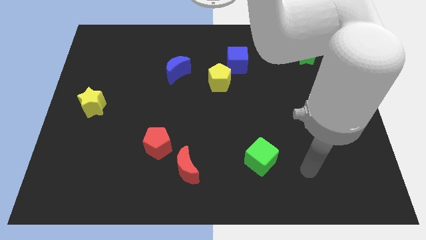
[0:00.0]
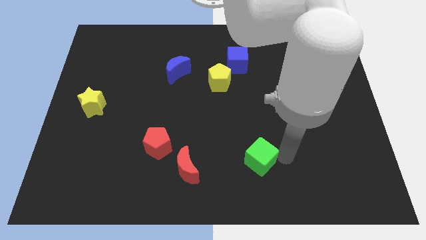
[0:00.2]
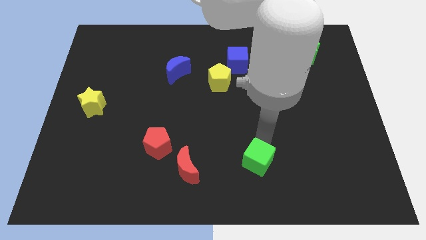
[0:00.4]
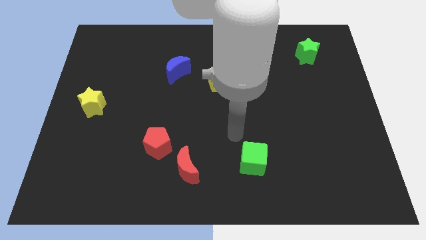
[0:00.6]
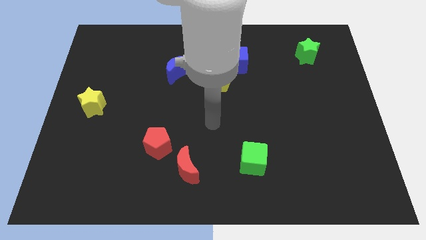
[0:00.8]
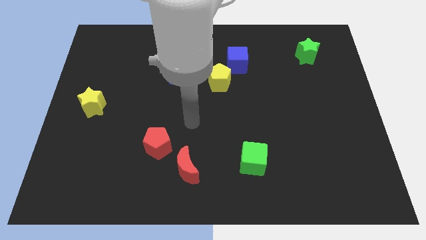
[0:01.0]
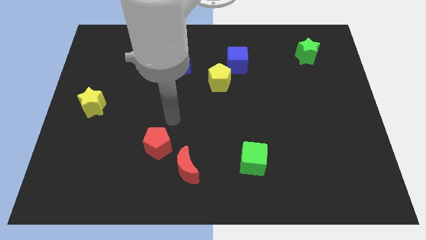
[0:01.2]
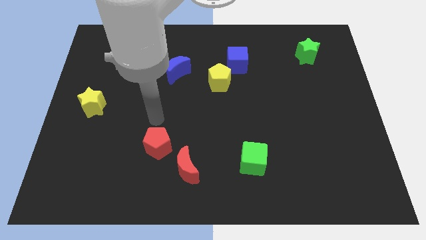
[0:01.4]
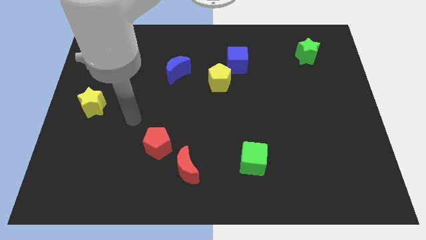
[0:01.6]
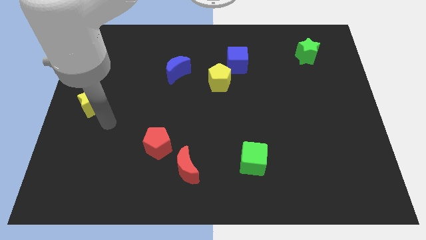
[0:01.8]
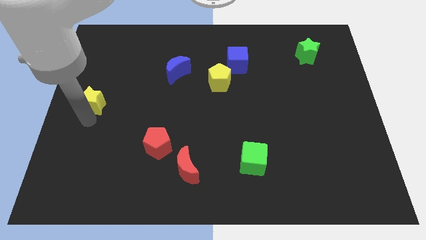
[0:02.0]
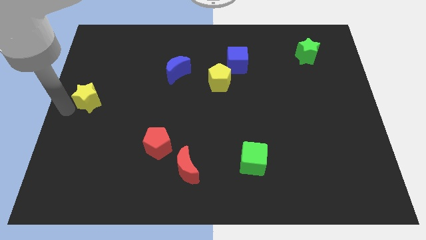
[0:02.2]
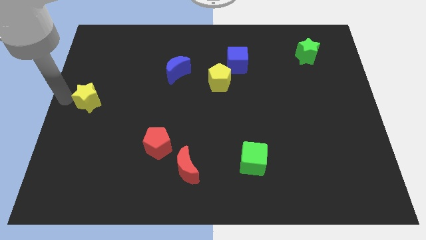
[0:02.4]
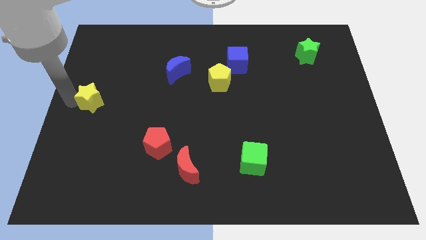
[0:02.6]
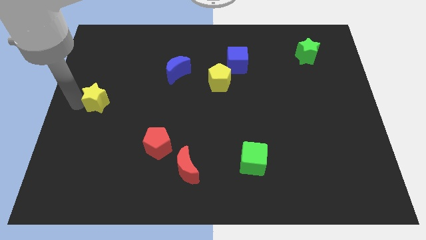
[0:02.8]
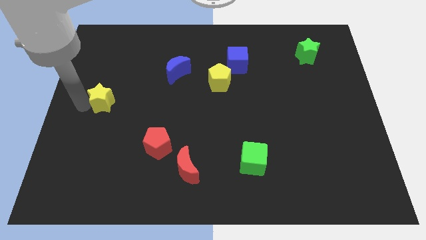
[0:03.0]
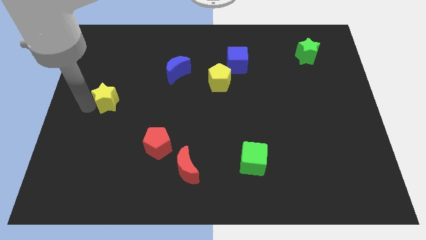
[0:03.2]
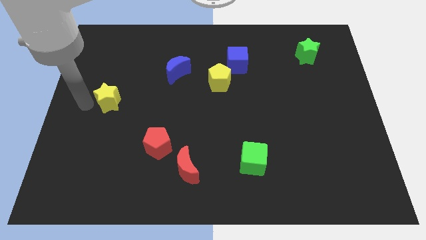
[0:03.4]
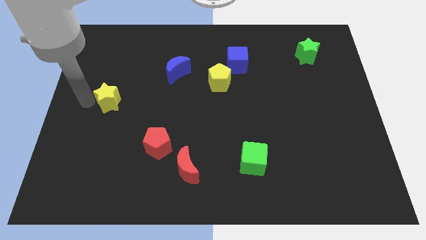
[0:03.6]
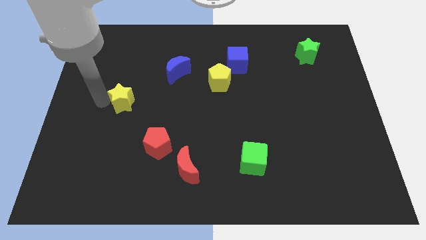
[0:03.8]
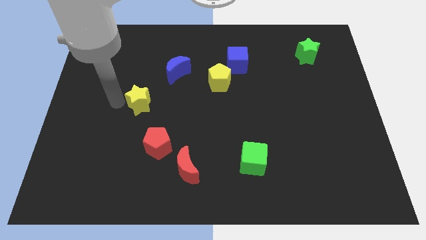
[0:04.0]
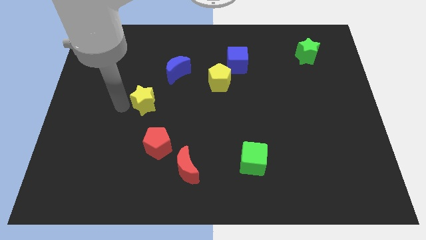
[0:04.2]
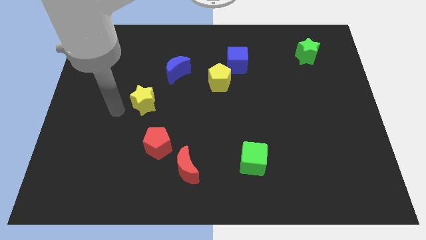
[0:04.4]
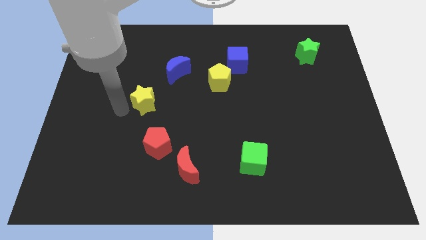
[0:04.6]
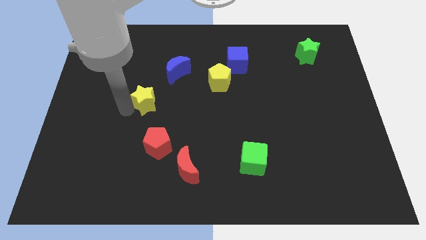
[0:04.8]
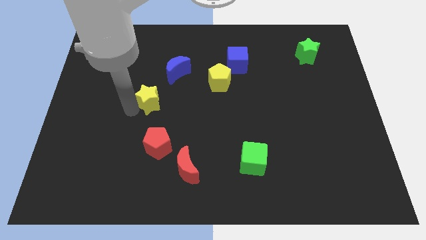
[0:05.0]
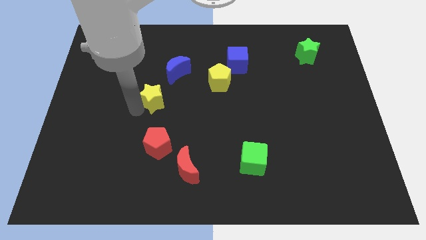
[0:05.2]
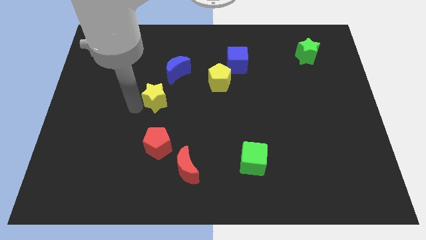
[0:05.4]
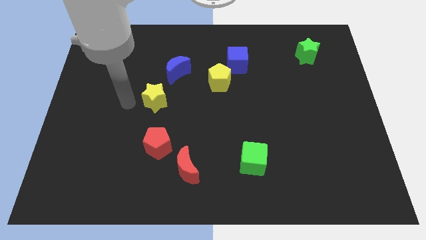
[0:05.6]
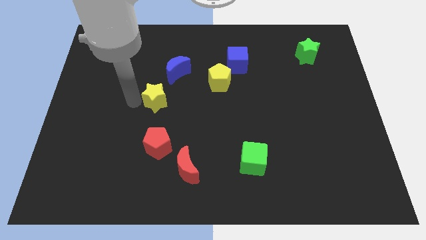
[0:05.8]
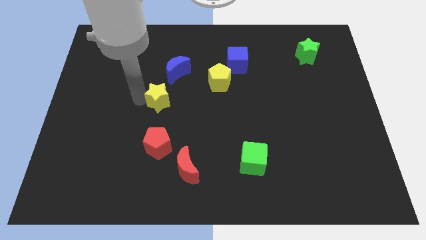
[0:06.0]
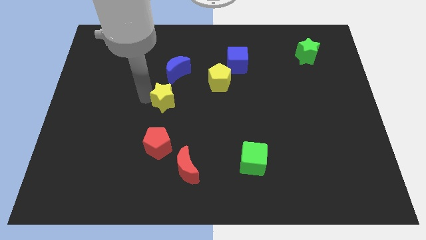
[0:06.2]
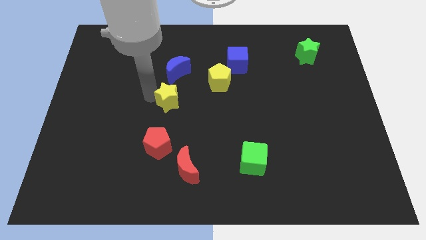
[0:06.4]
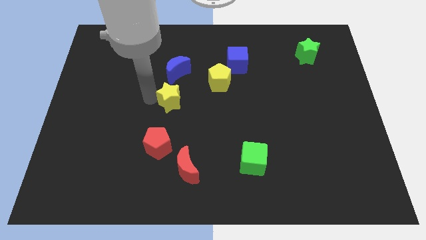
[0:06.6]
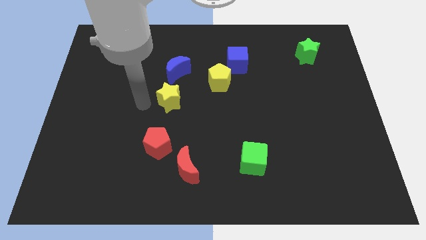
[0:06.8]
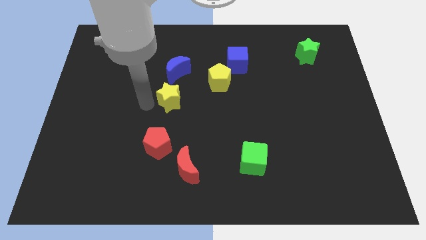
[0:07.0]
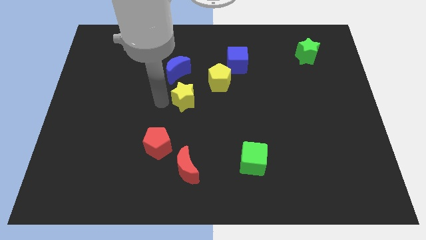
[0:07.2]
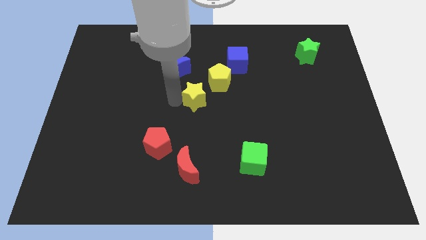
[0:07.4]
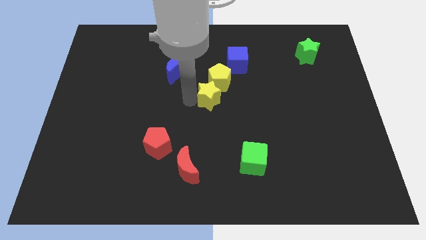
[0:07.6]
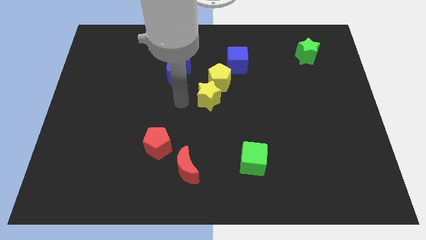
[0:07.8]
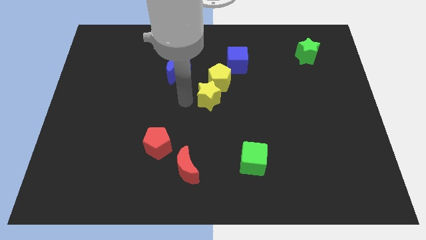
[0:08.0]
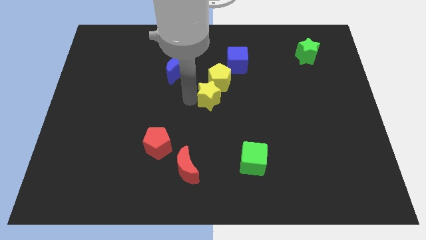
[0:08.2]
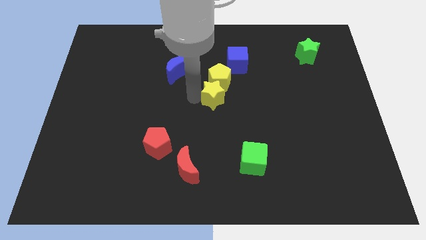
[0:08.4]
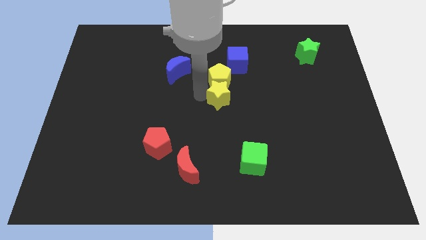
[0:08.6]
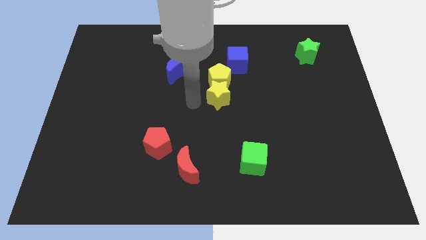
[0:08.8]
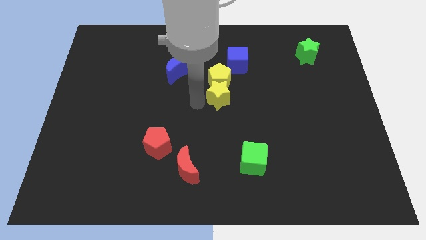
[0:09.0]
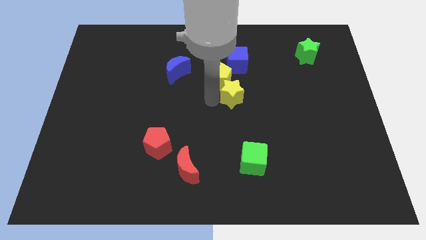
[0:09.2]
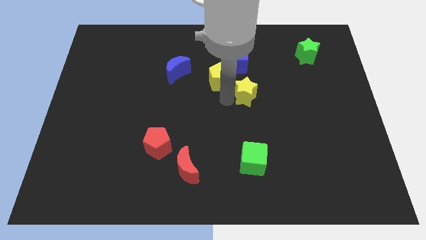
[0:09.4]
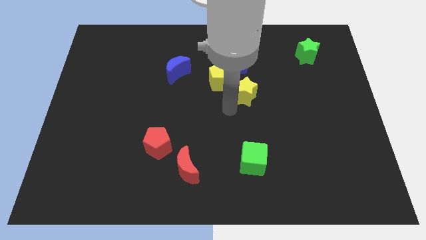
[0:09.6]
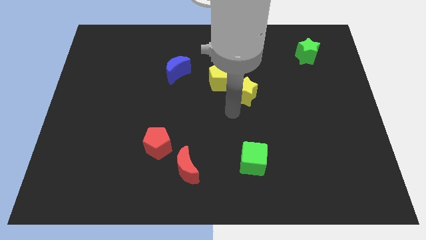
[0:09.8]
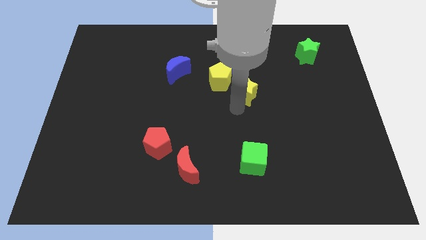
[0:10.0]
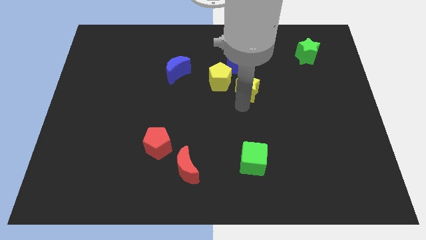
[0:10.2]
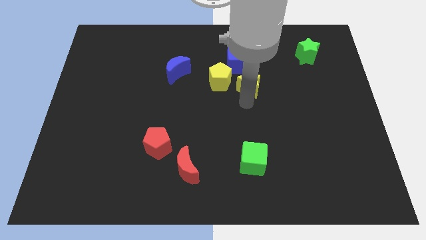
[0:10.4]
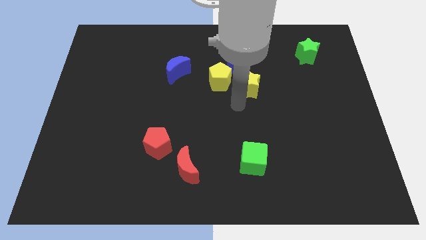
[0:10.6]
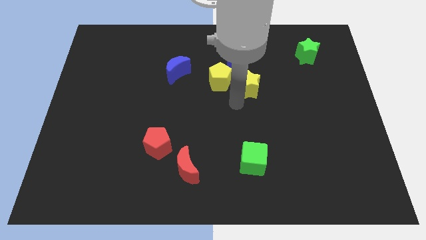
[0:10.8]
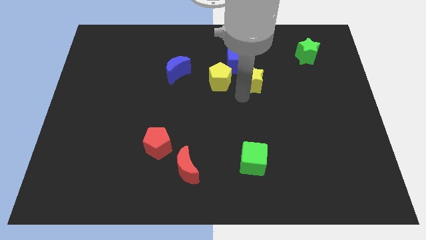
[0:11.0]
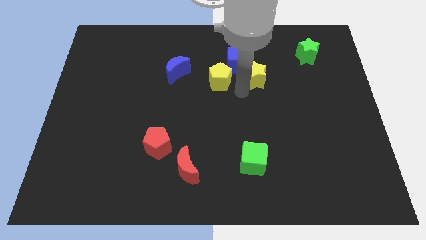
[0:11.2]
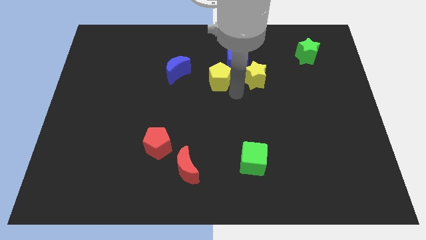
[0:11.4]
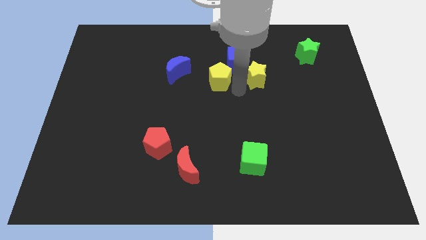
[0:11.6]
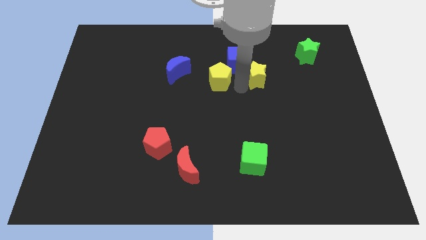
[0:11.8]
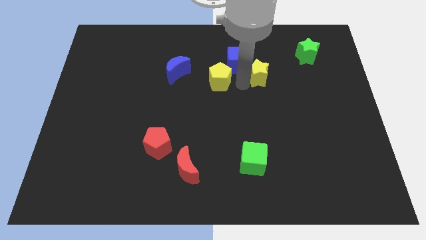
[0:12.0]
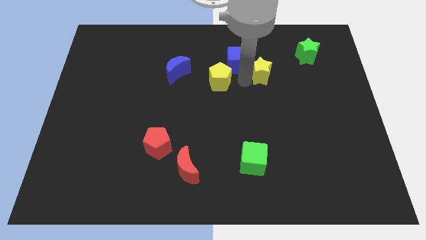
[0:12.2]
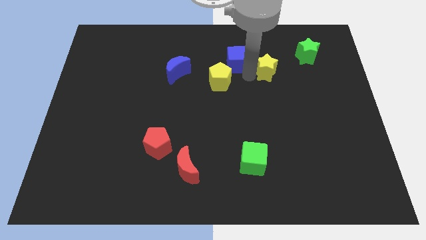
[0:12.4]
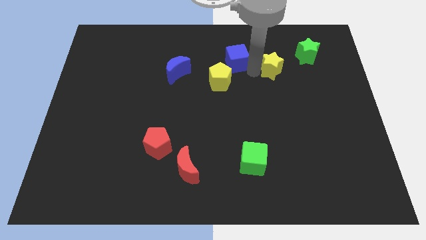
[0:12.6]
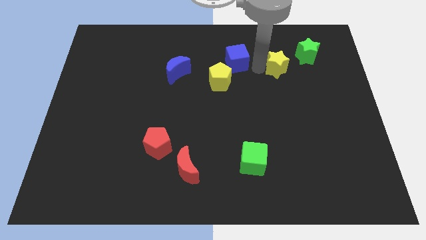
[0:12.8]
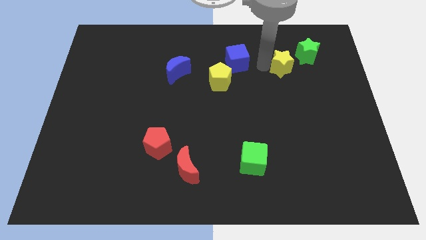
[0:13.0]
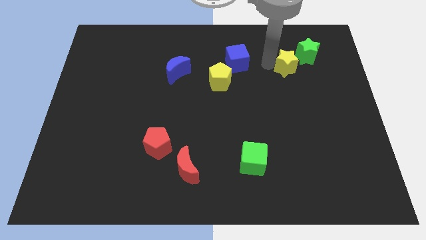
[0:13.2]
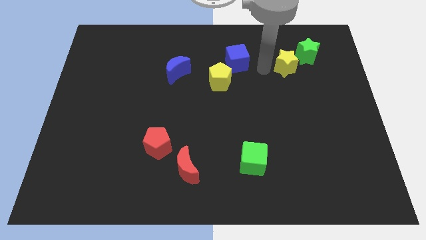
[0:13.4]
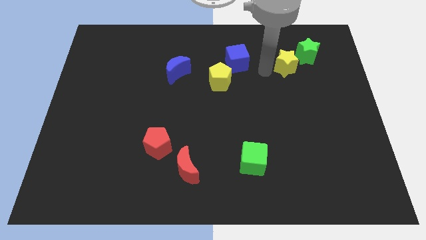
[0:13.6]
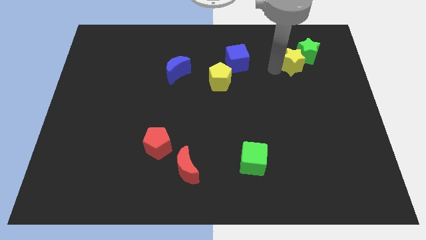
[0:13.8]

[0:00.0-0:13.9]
push the yellow star next to the green star
